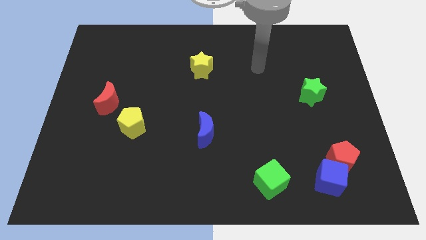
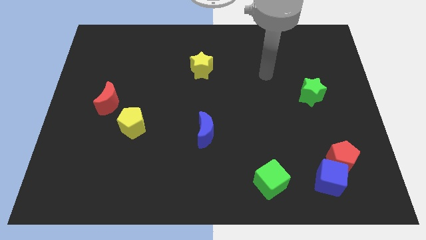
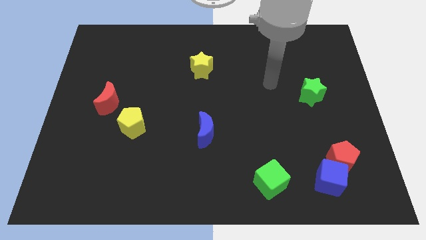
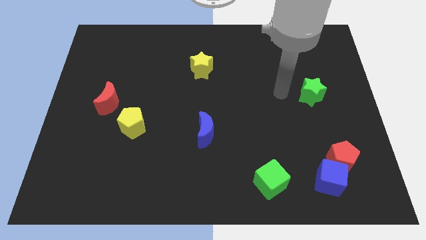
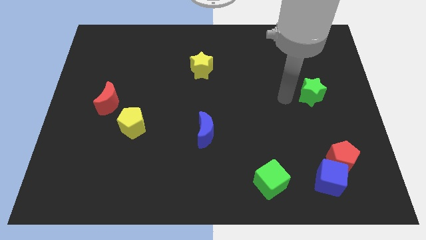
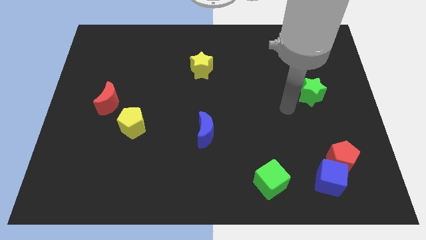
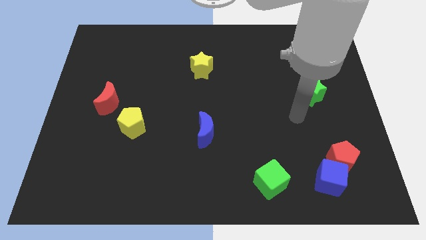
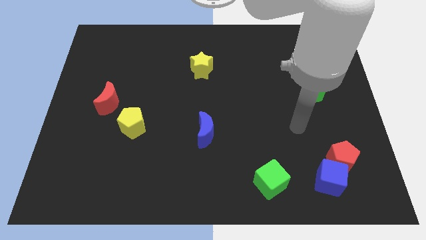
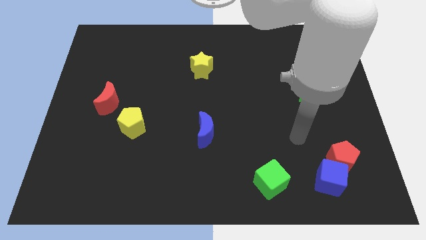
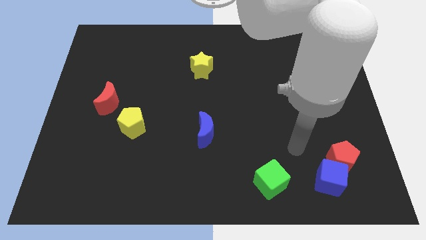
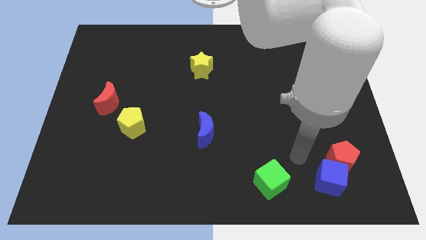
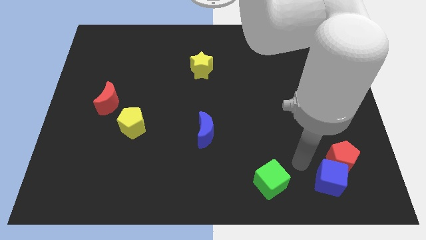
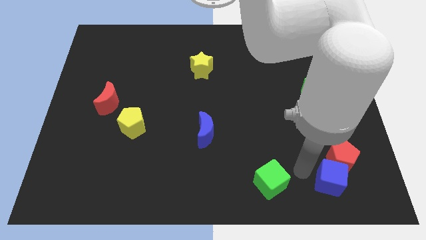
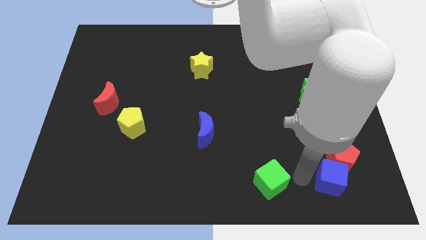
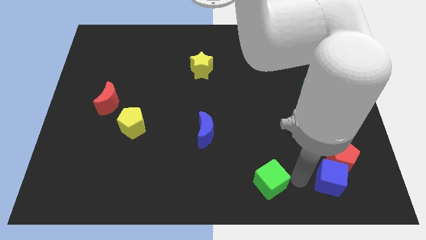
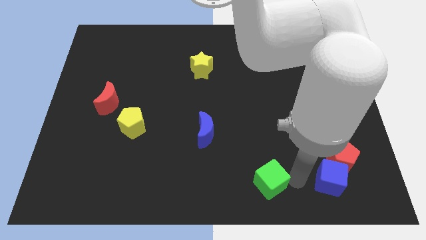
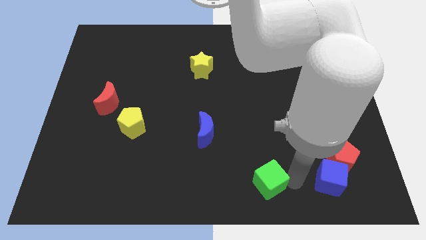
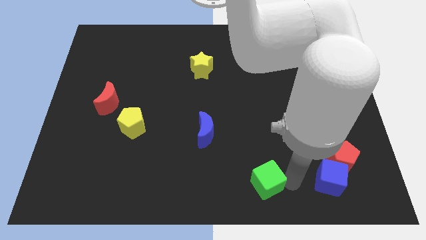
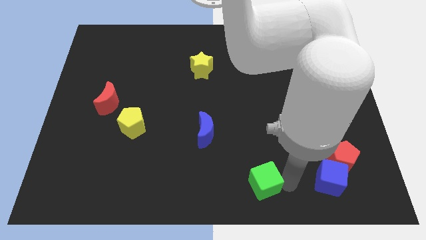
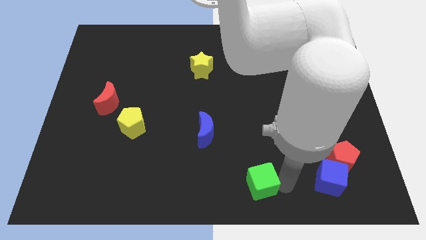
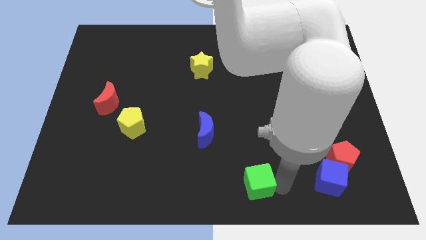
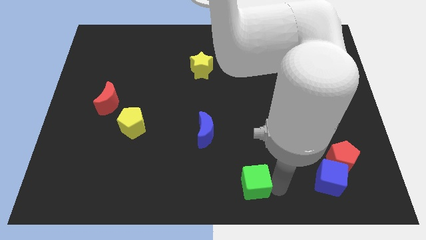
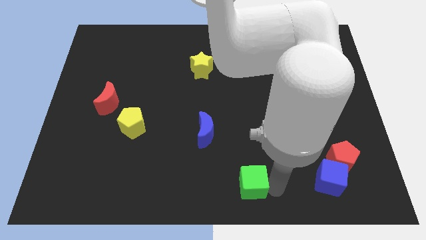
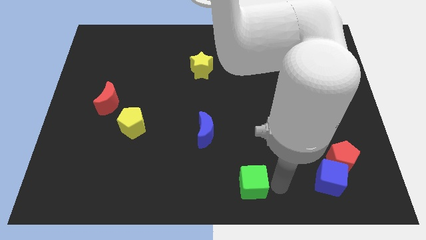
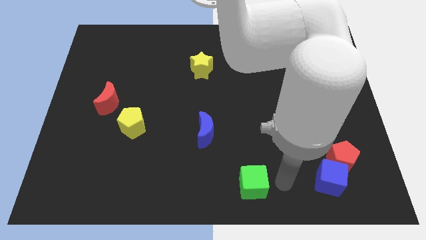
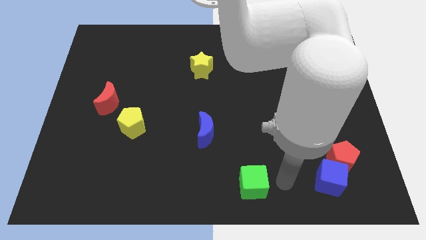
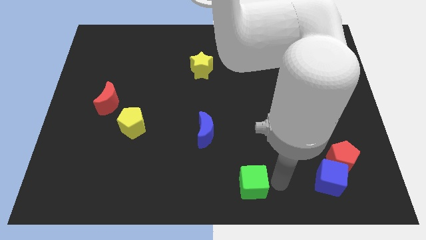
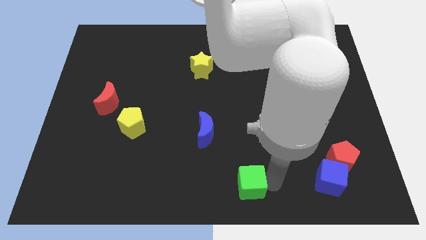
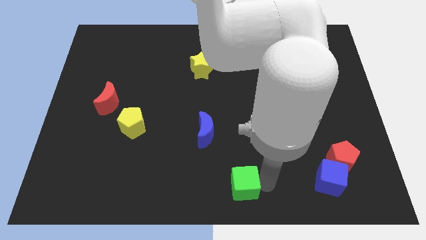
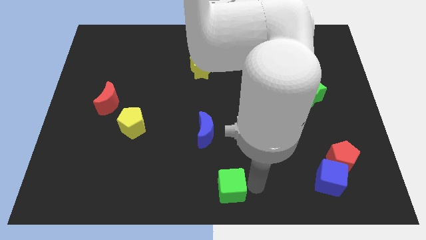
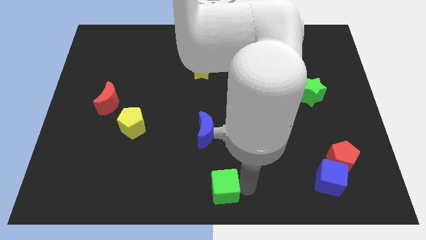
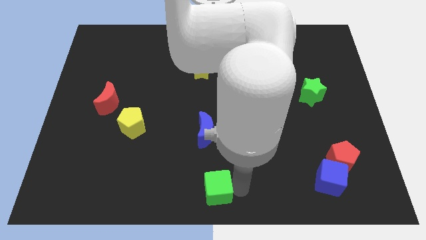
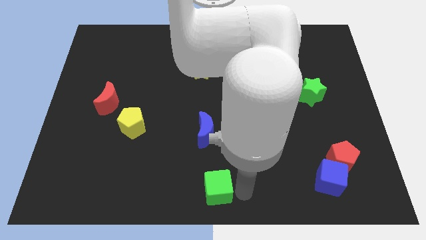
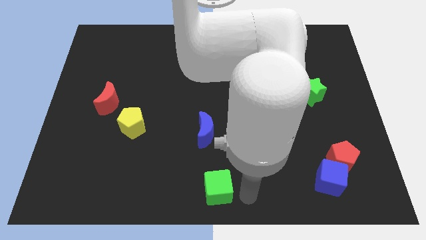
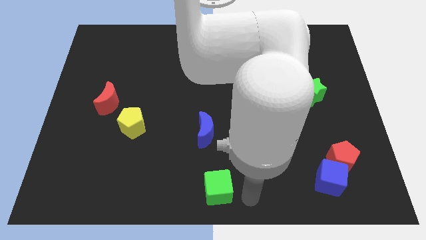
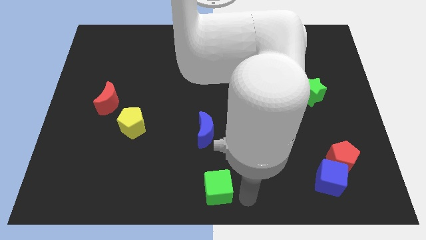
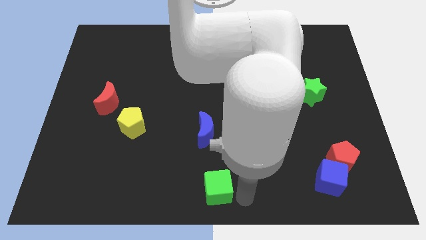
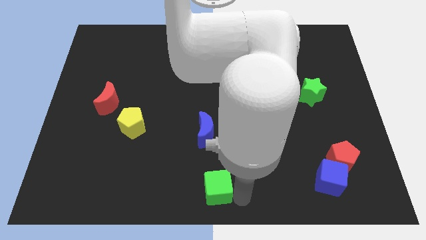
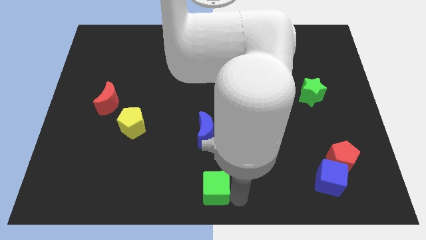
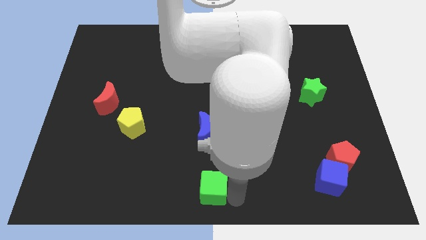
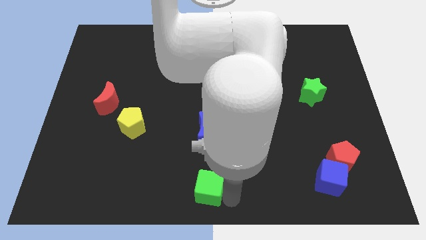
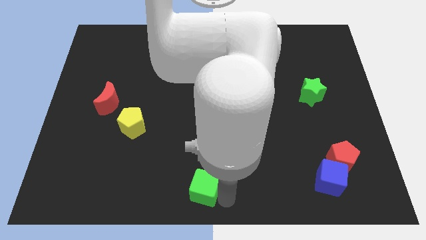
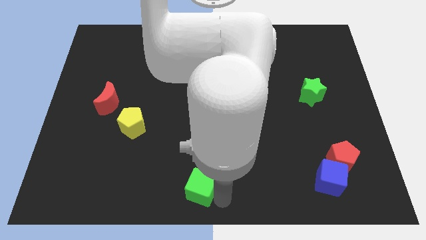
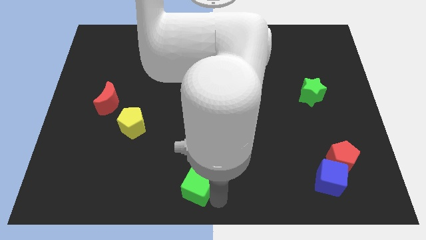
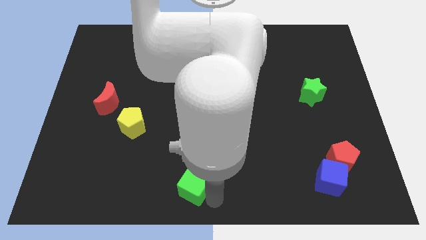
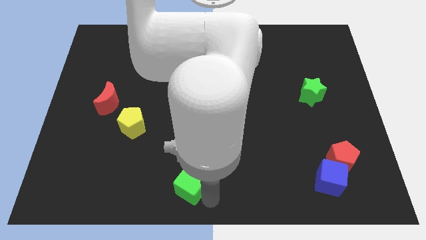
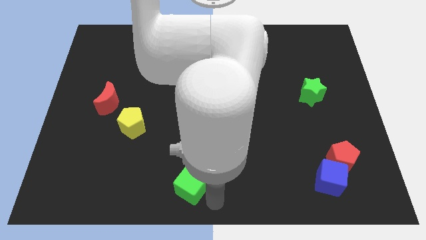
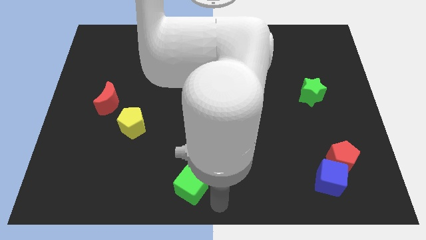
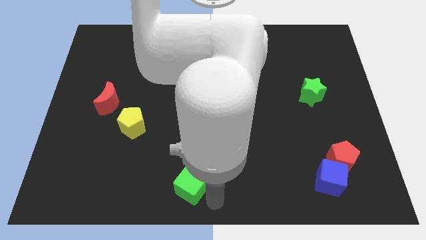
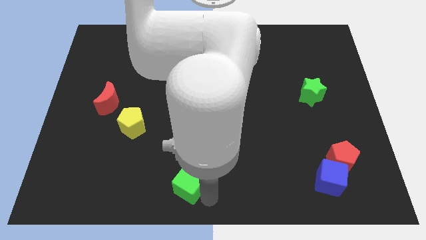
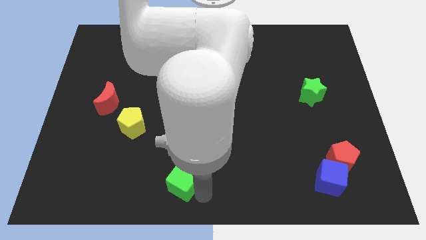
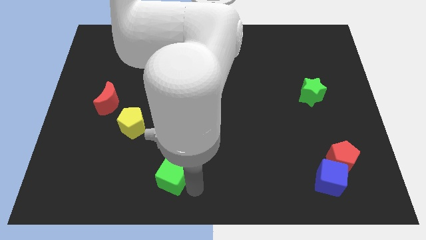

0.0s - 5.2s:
push the green cube left

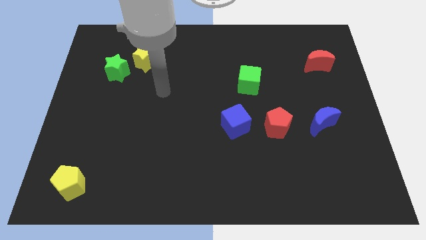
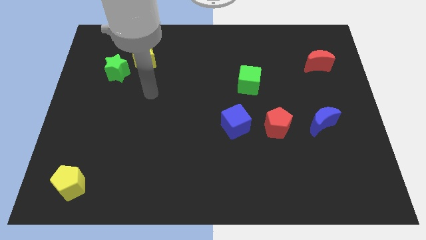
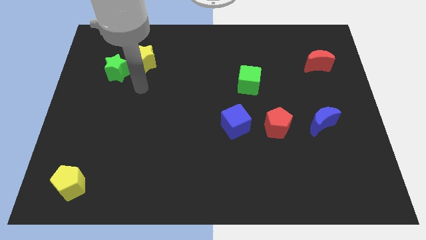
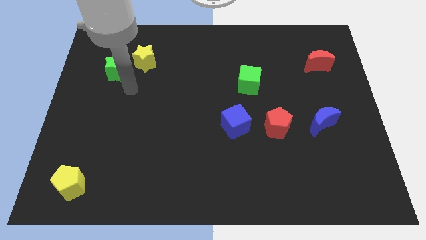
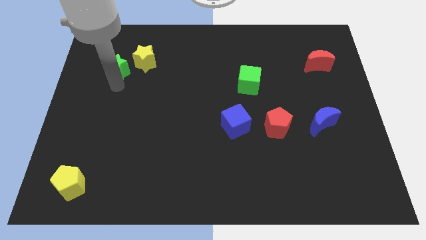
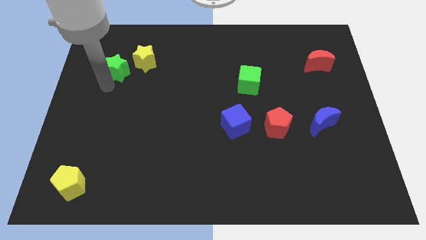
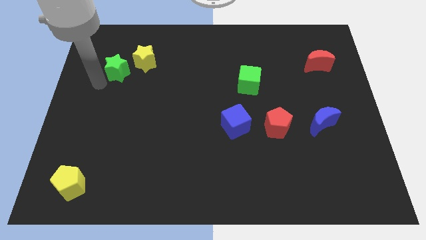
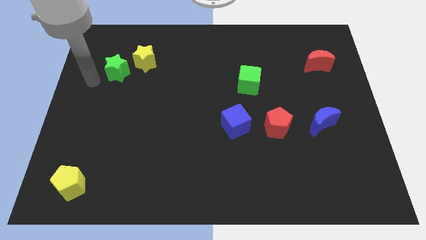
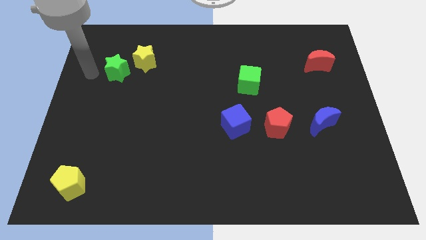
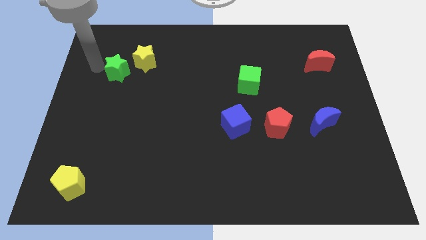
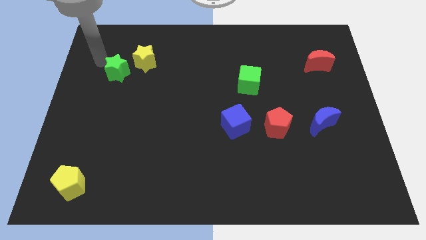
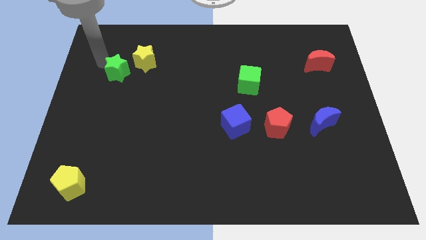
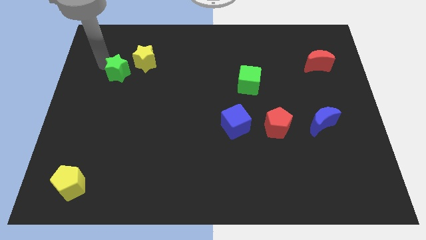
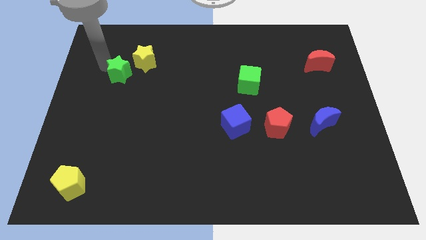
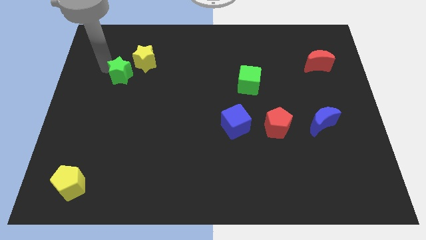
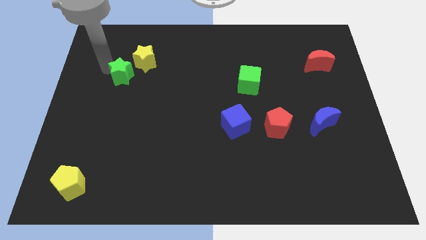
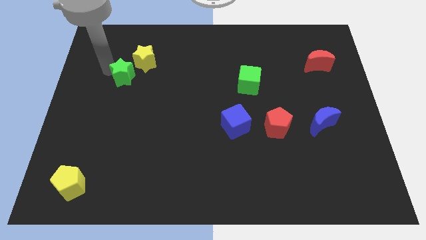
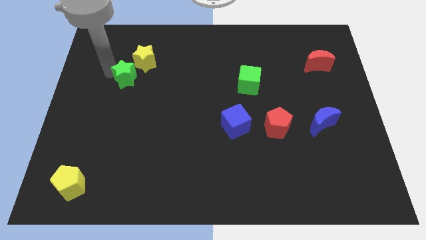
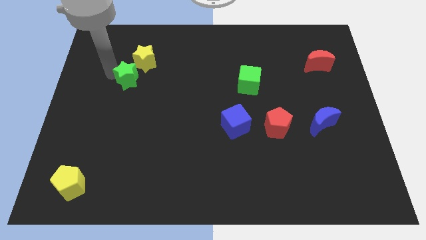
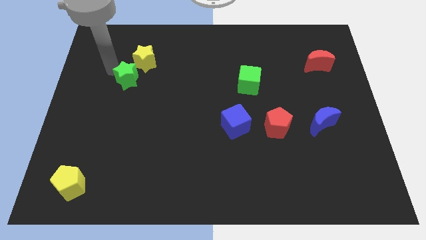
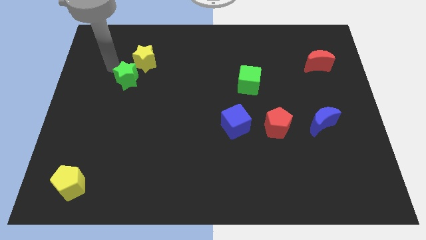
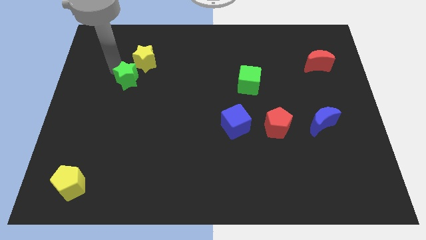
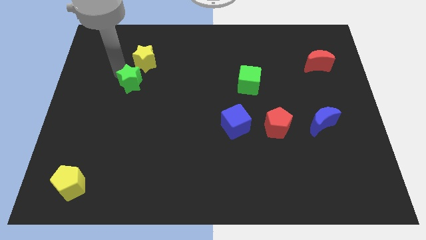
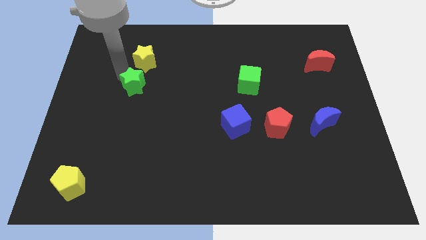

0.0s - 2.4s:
push the green star a little bit down and right diagonally

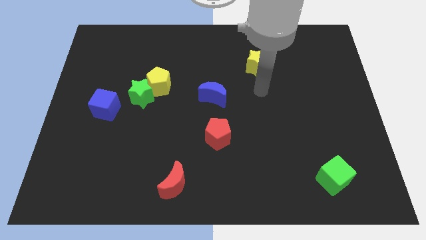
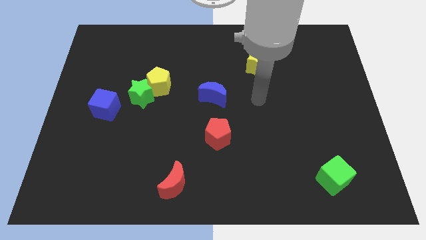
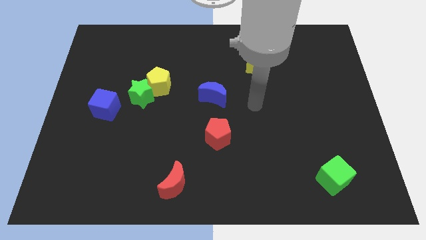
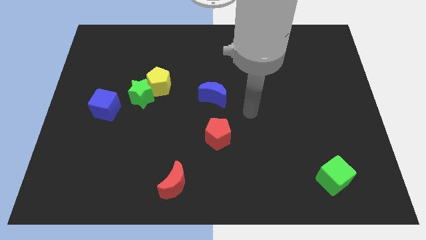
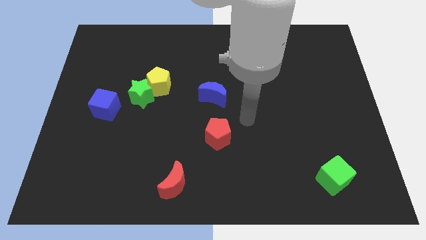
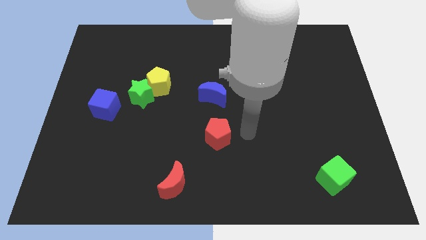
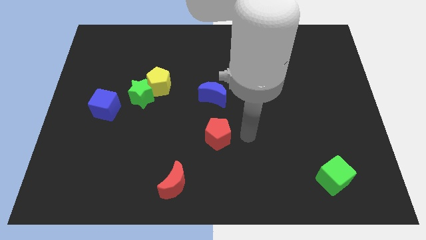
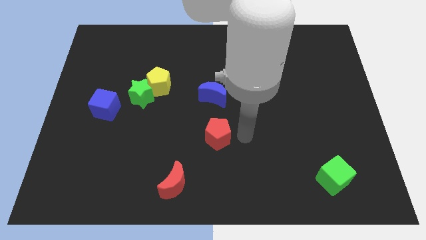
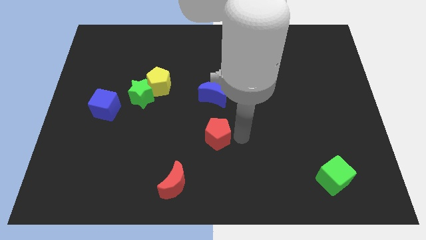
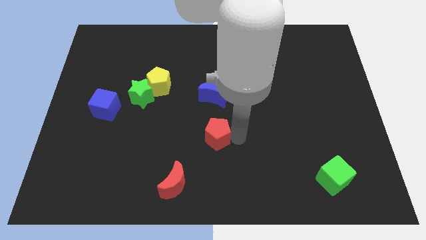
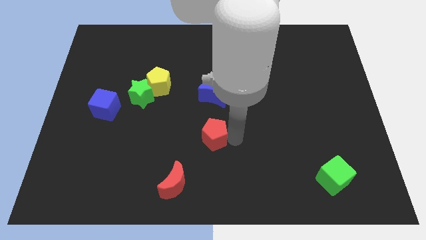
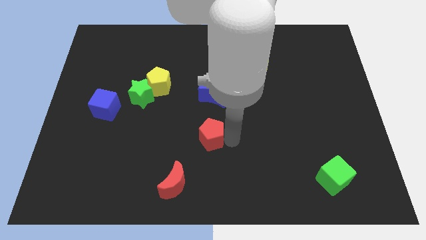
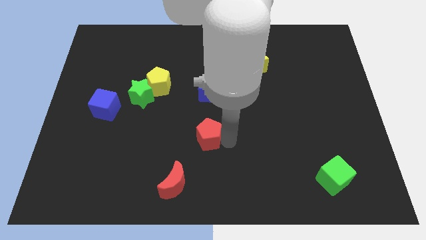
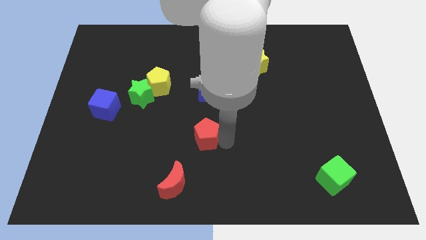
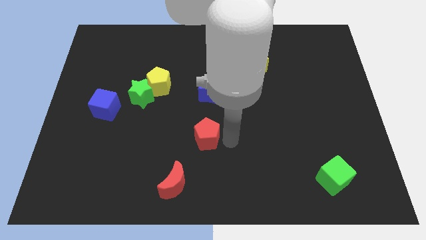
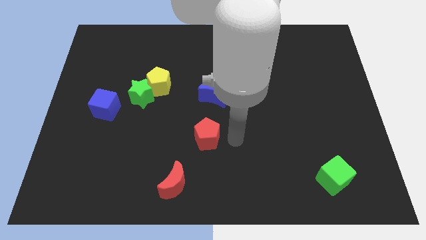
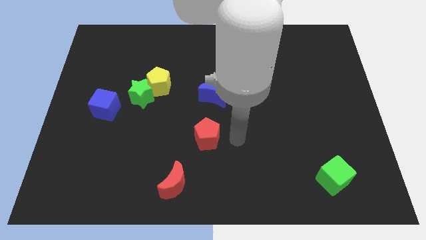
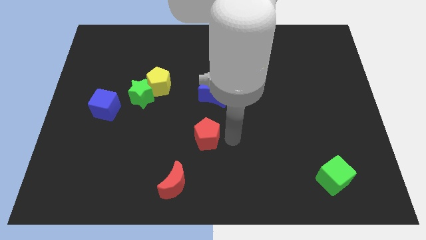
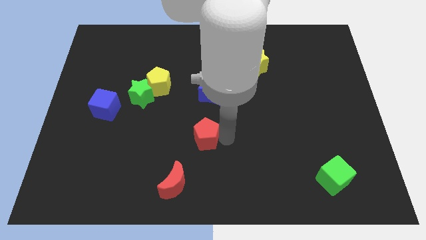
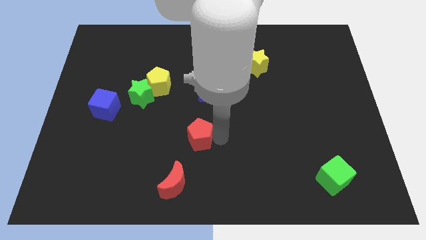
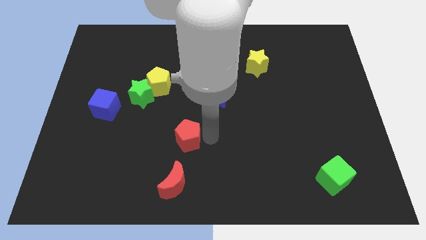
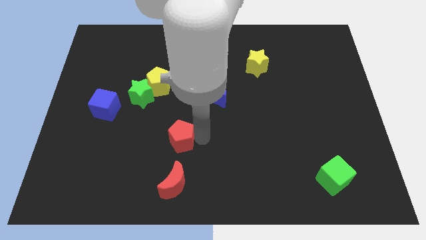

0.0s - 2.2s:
push the red pentagon left somewhat
